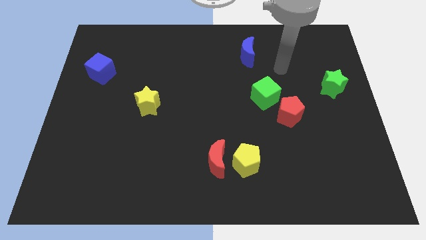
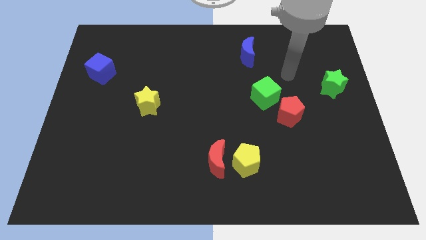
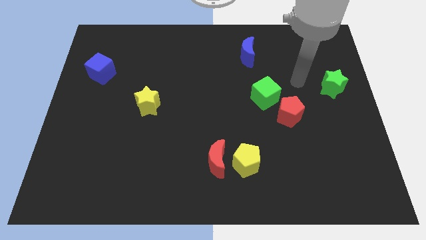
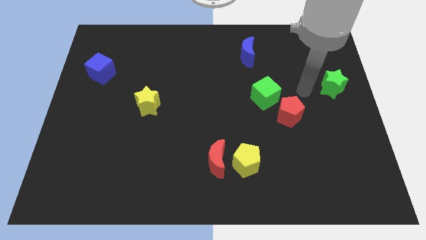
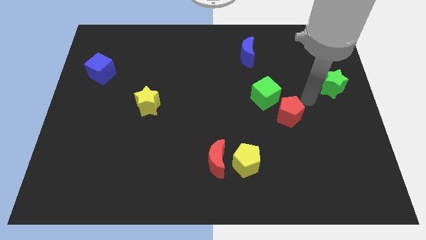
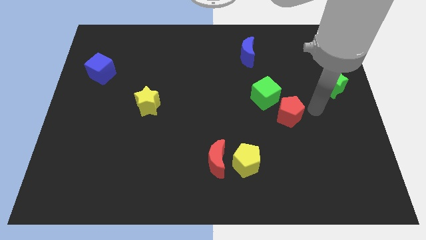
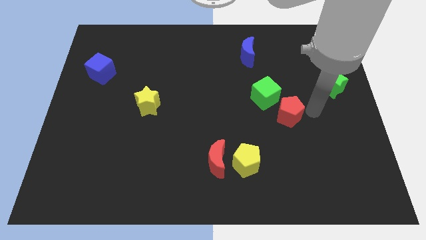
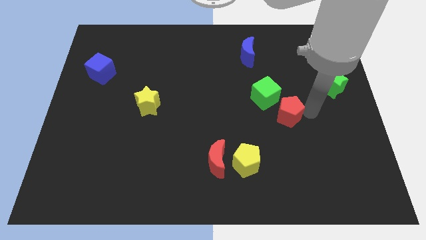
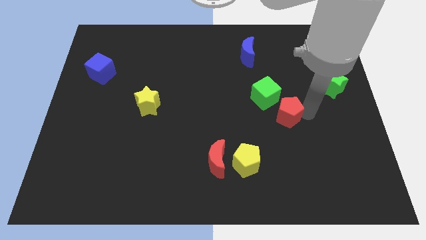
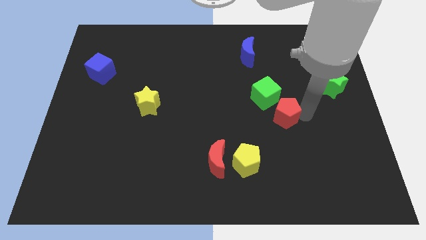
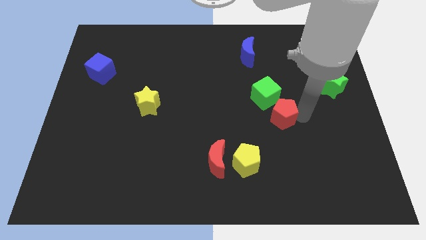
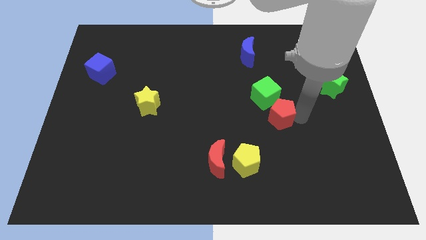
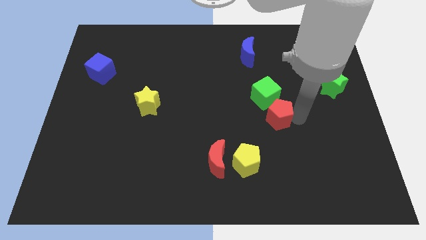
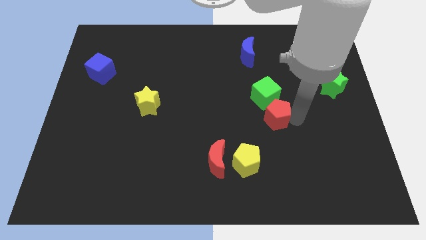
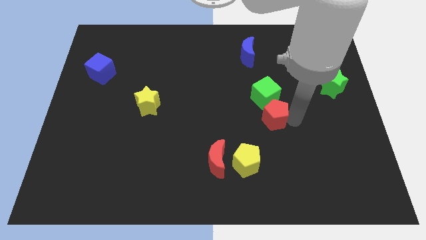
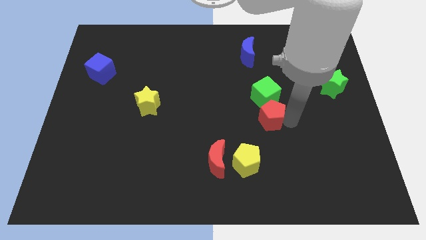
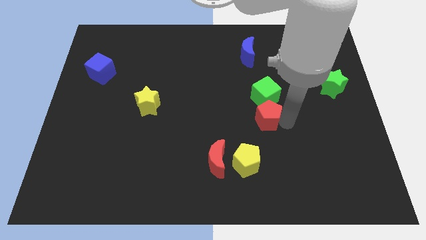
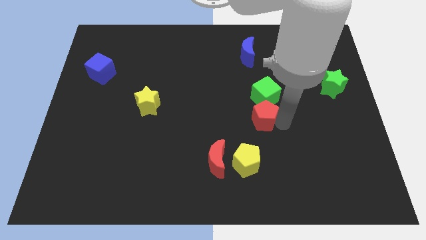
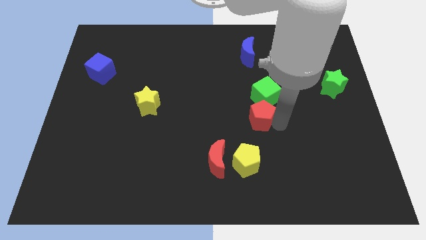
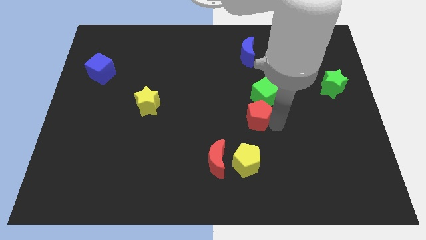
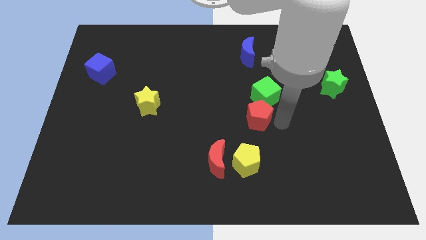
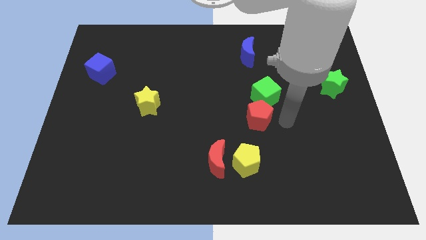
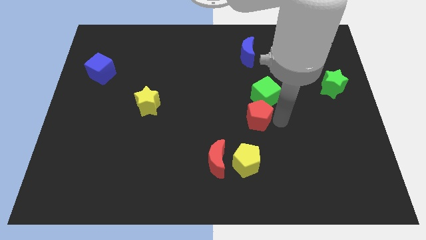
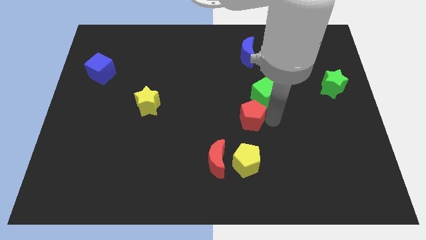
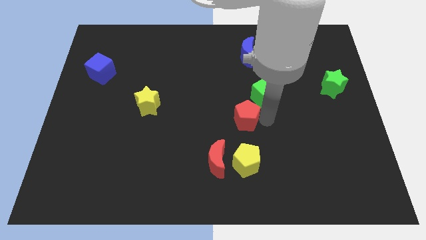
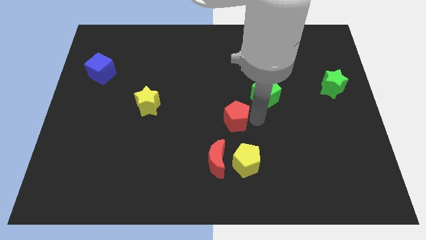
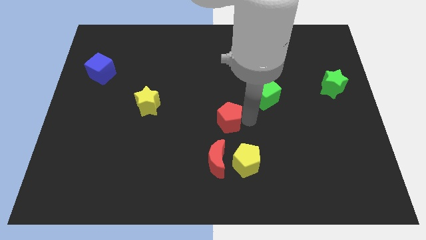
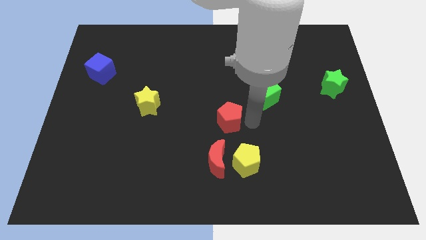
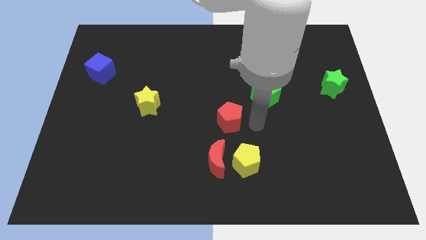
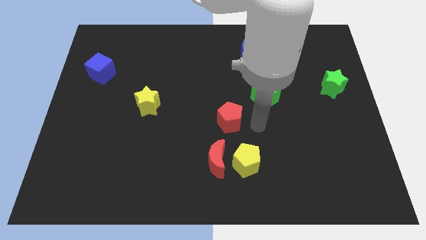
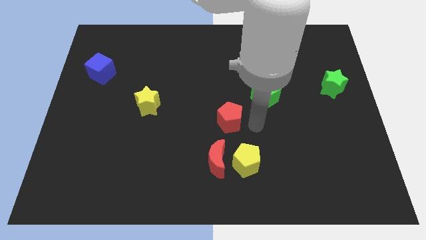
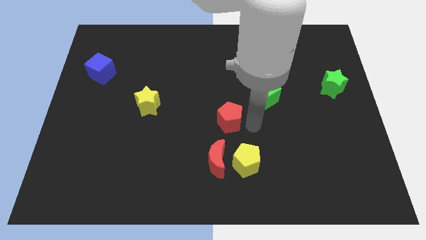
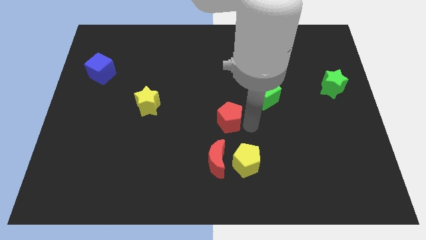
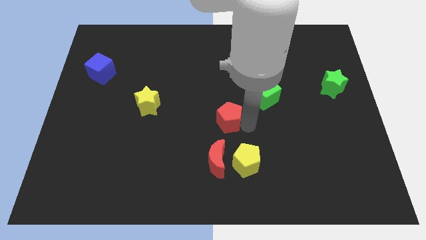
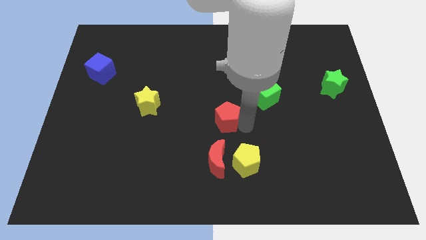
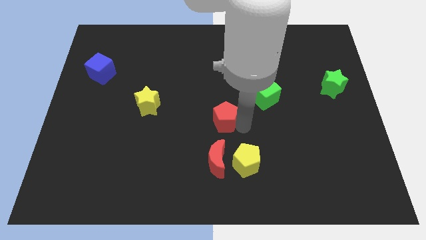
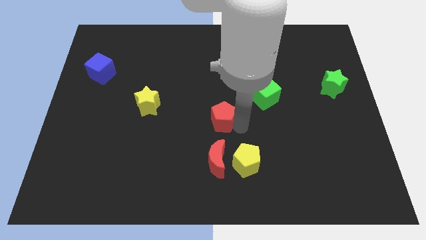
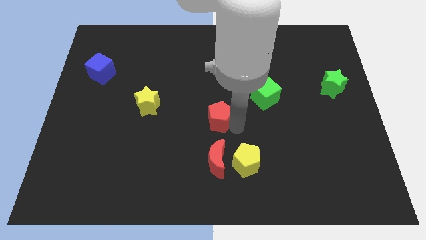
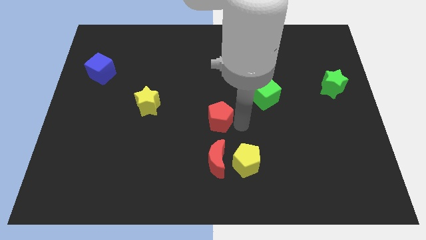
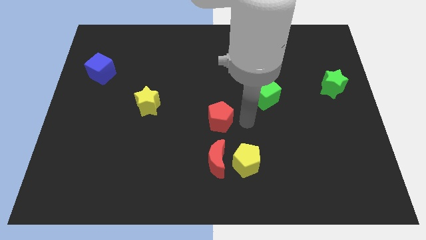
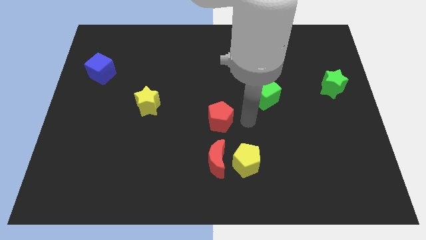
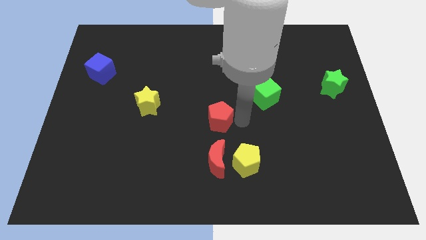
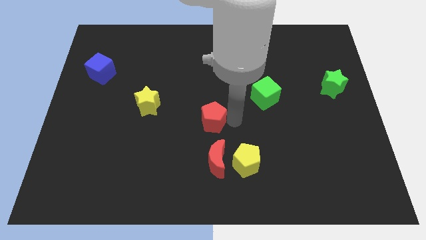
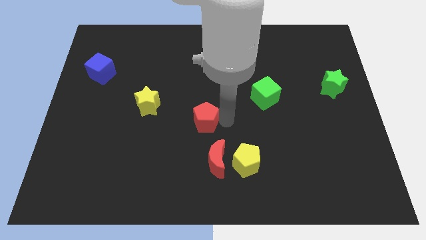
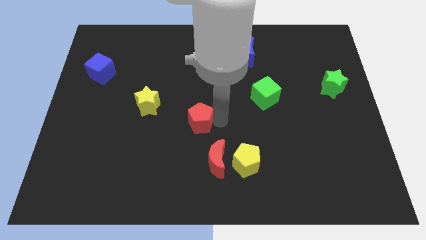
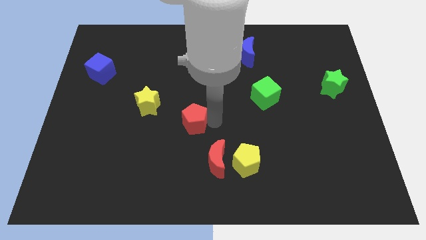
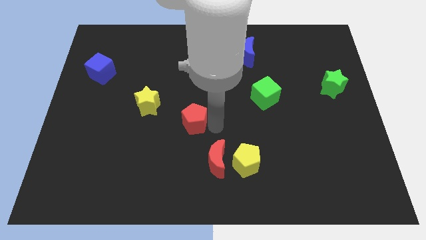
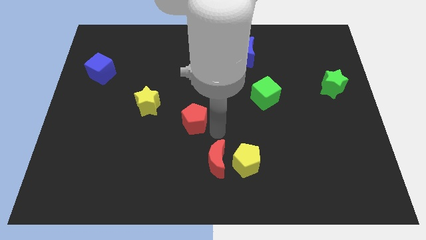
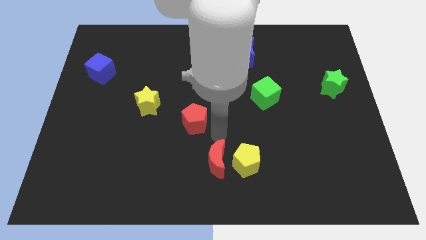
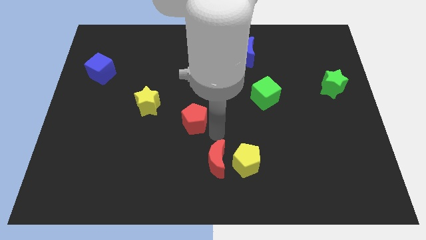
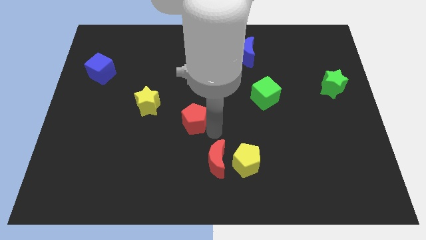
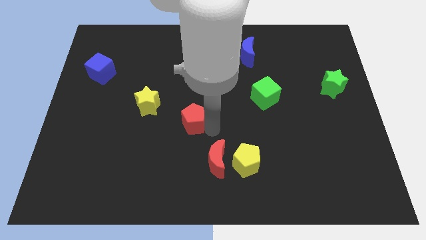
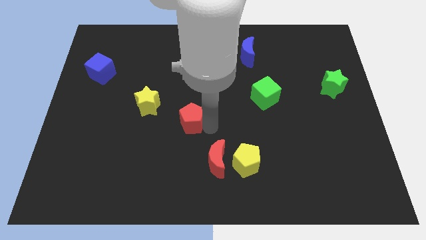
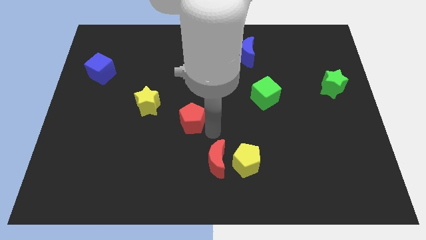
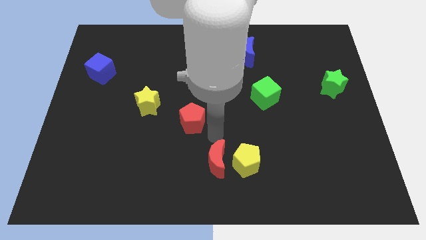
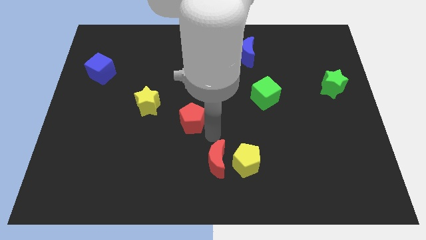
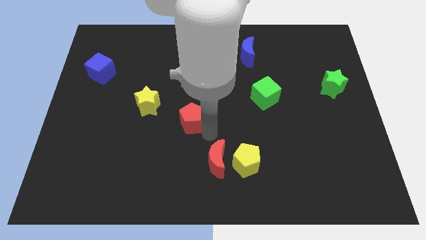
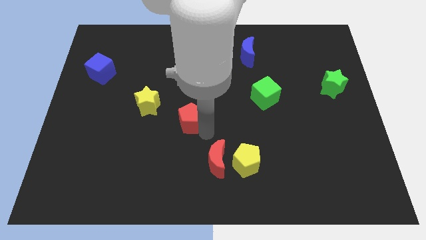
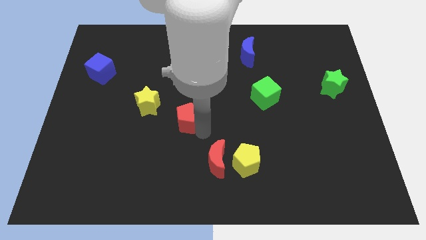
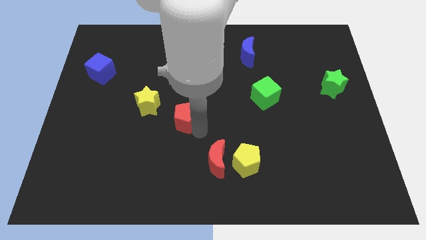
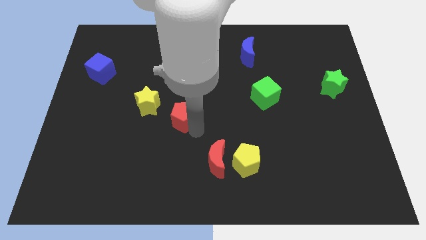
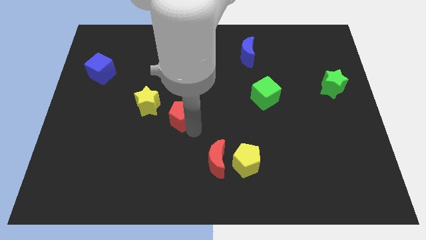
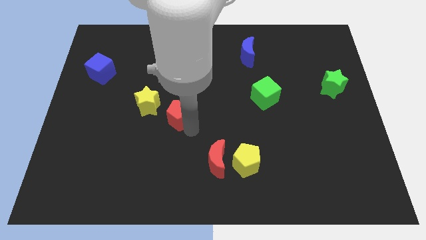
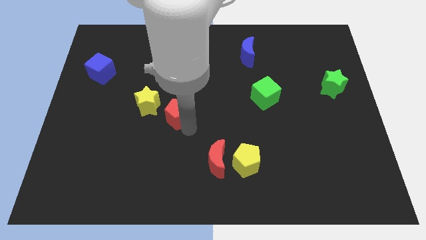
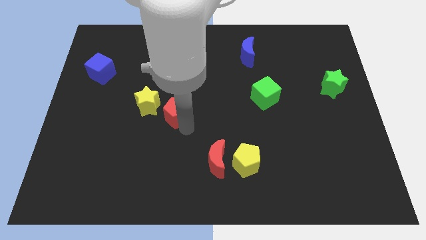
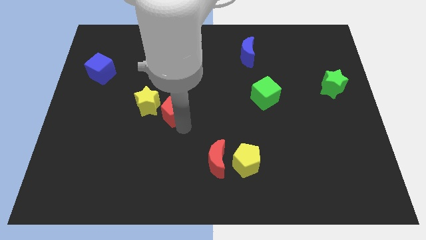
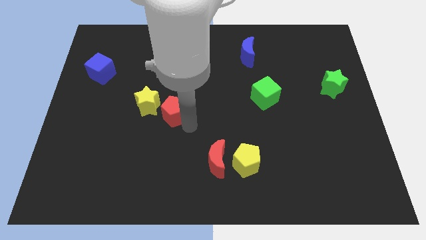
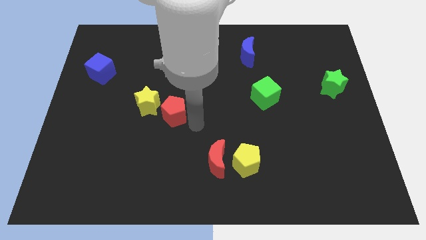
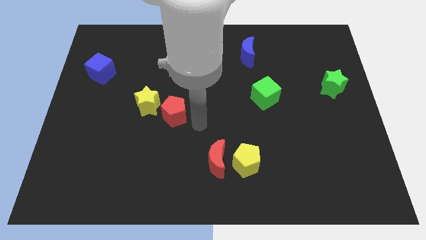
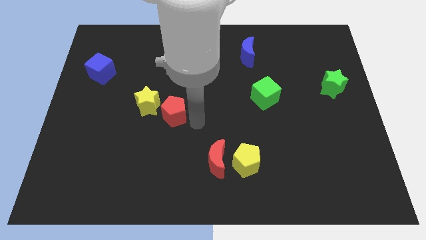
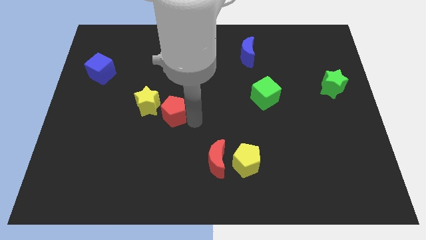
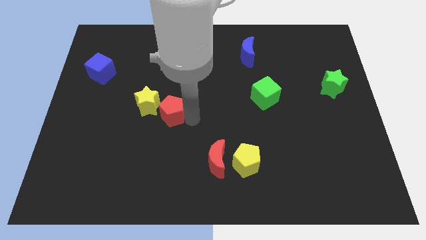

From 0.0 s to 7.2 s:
move the red pentagon towards the yellow star
